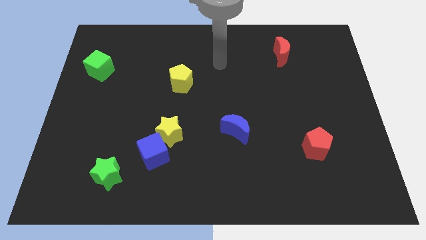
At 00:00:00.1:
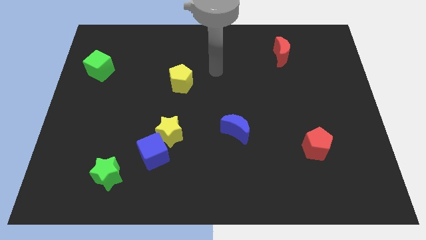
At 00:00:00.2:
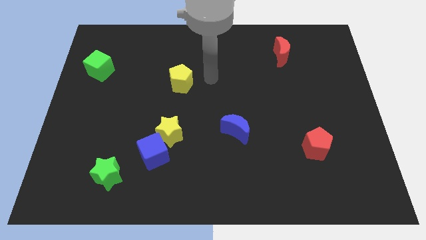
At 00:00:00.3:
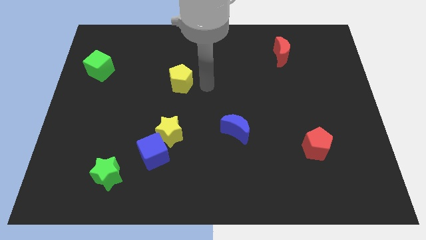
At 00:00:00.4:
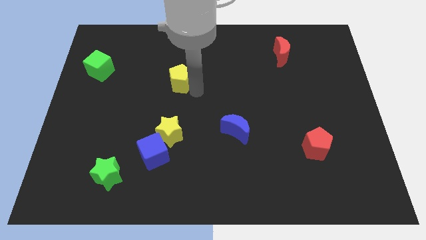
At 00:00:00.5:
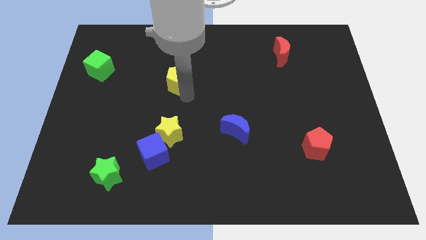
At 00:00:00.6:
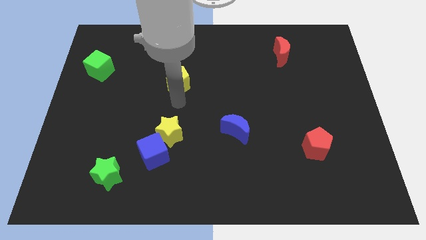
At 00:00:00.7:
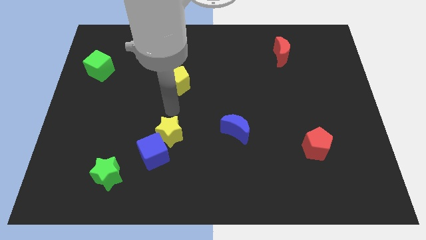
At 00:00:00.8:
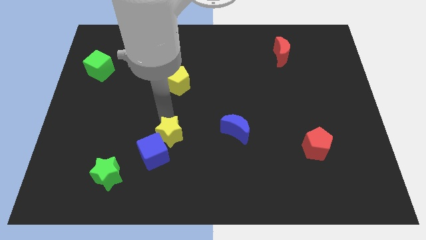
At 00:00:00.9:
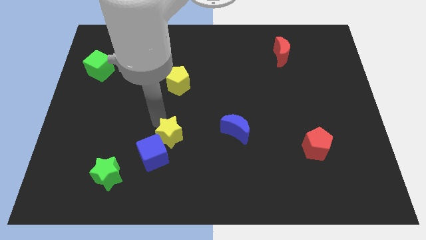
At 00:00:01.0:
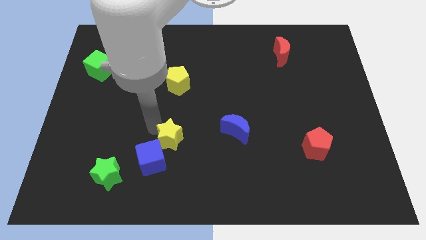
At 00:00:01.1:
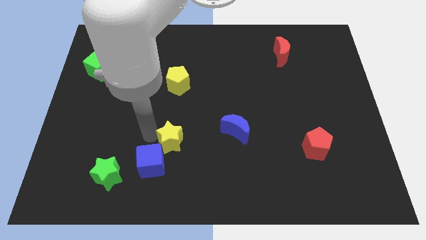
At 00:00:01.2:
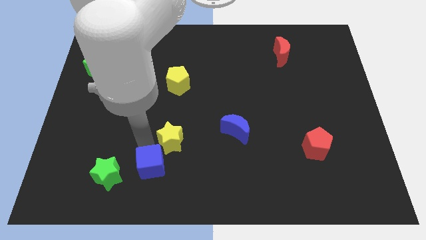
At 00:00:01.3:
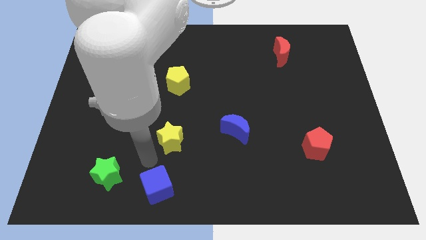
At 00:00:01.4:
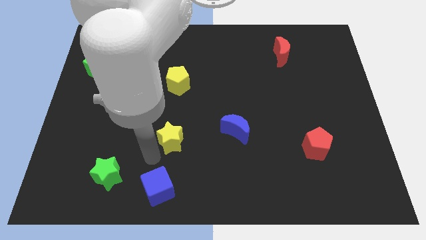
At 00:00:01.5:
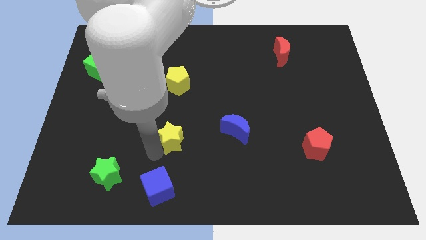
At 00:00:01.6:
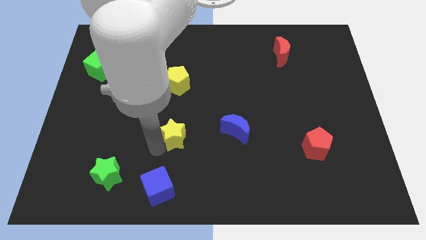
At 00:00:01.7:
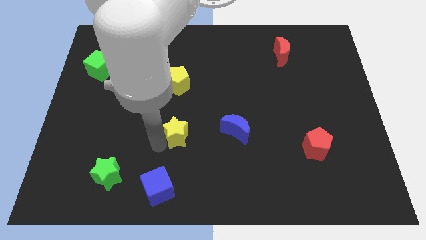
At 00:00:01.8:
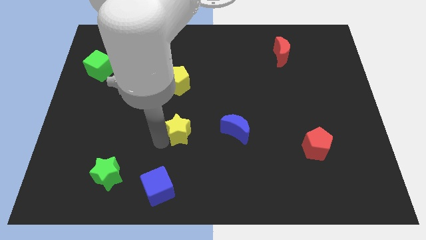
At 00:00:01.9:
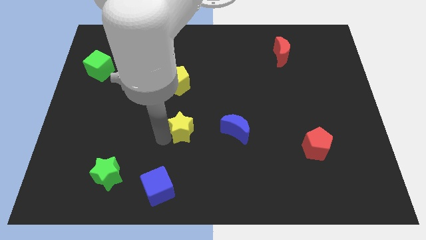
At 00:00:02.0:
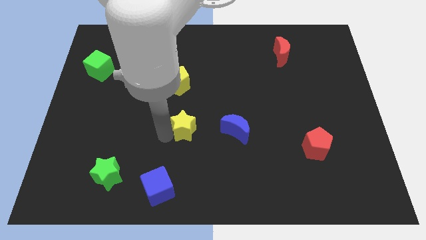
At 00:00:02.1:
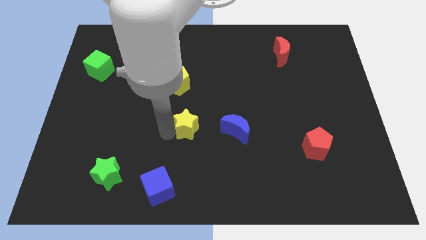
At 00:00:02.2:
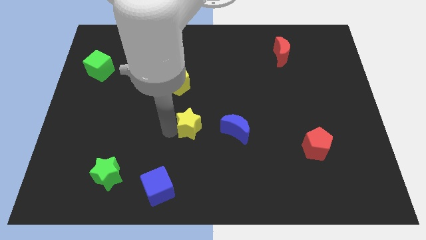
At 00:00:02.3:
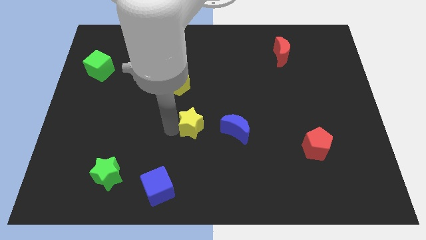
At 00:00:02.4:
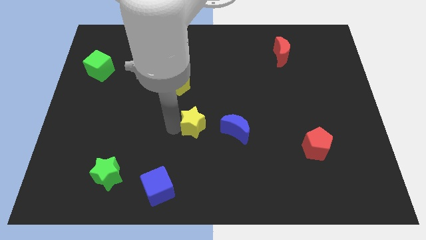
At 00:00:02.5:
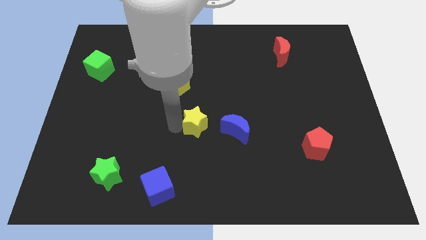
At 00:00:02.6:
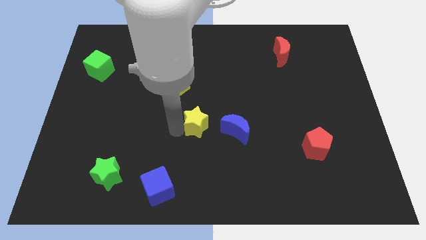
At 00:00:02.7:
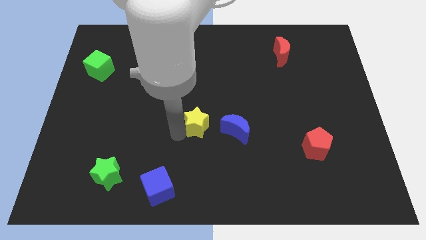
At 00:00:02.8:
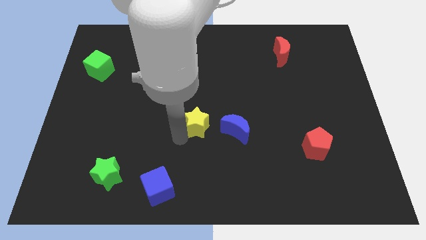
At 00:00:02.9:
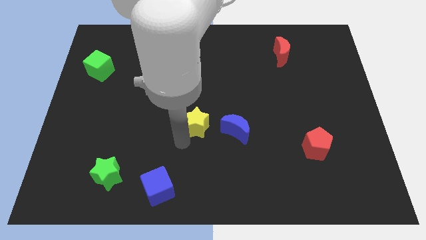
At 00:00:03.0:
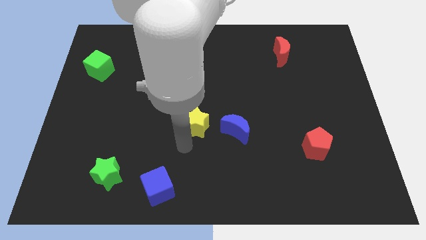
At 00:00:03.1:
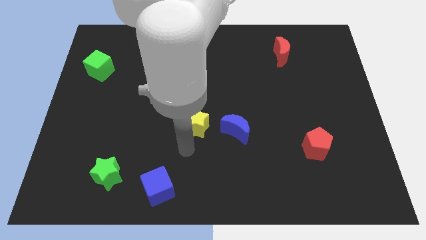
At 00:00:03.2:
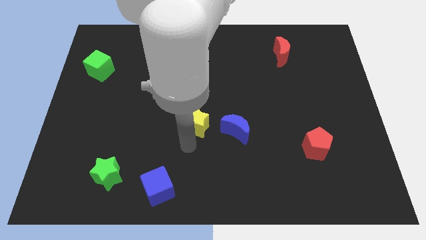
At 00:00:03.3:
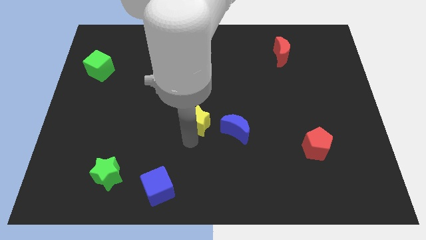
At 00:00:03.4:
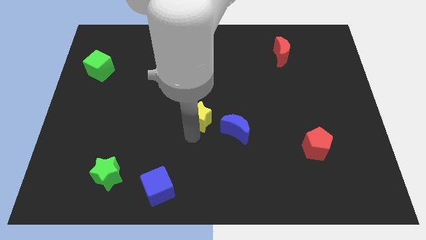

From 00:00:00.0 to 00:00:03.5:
move the yellow star a little bit up and then right

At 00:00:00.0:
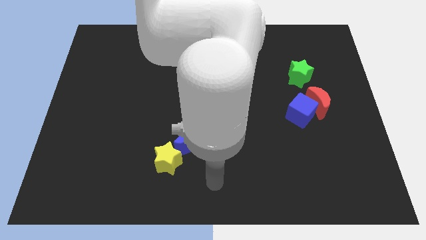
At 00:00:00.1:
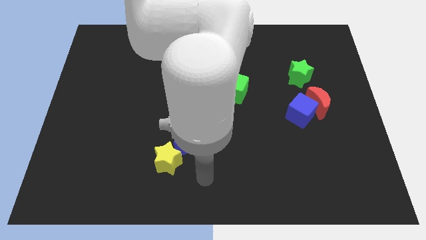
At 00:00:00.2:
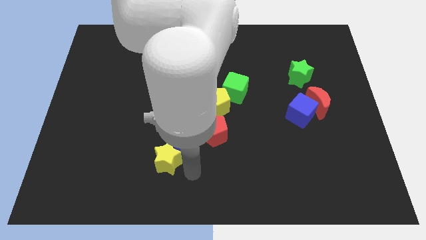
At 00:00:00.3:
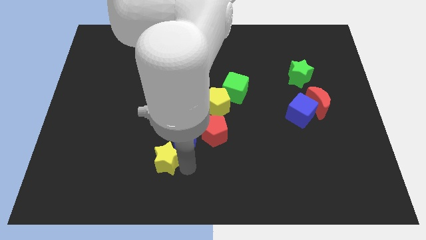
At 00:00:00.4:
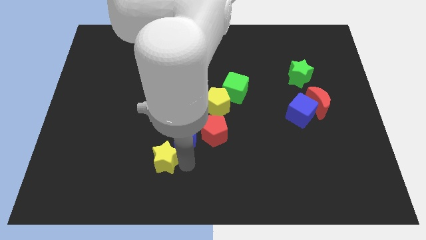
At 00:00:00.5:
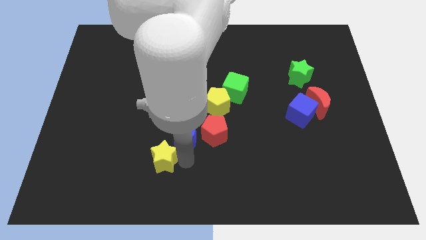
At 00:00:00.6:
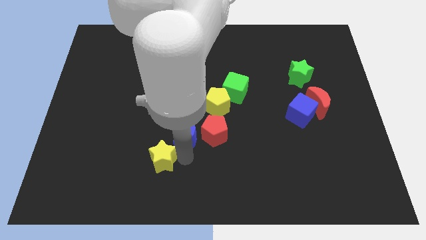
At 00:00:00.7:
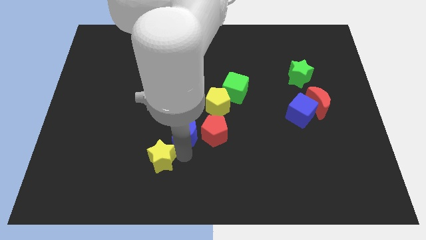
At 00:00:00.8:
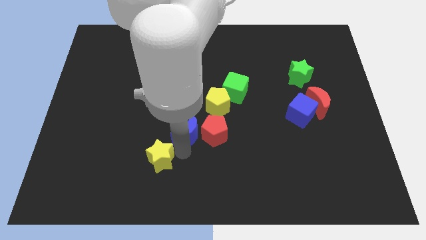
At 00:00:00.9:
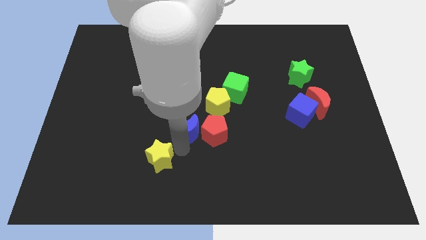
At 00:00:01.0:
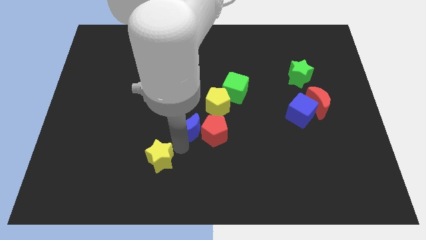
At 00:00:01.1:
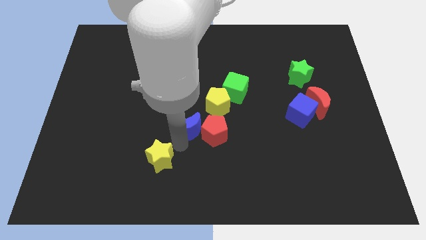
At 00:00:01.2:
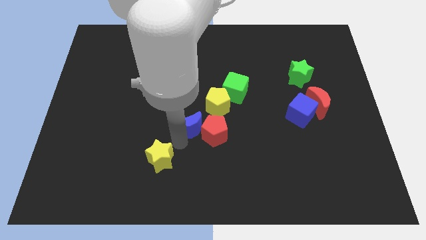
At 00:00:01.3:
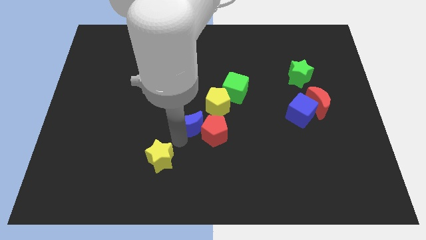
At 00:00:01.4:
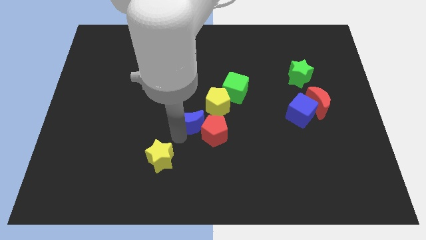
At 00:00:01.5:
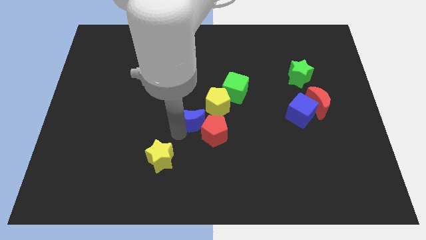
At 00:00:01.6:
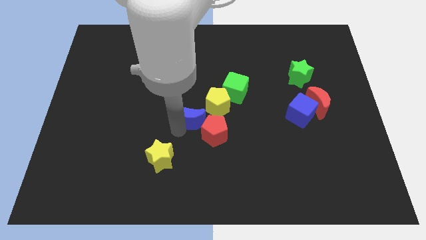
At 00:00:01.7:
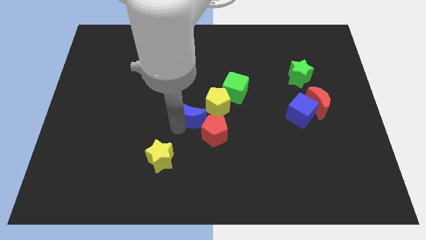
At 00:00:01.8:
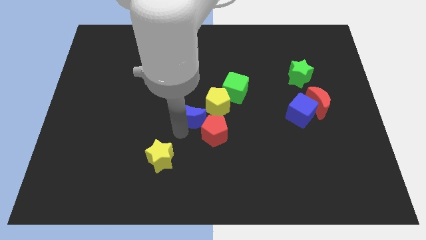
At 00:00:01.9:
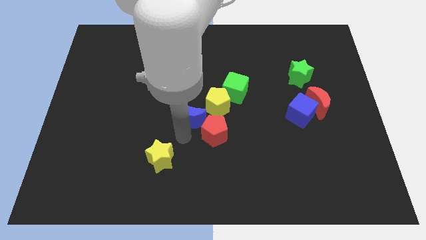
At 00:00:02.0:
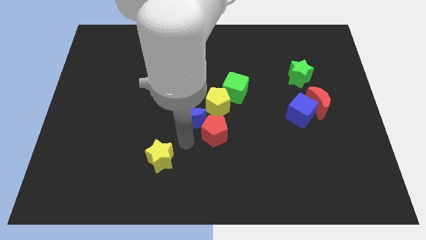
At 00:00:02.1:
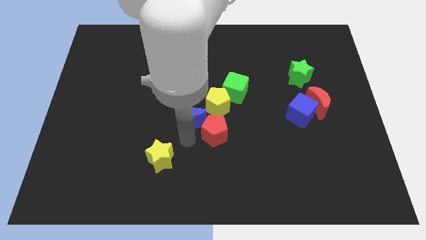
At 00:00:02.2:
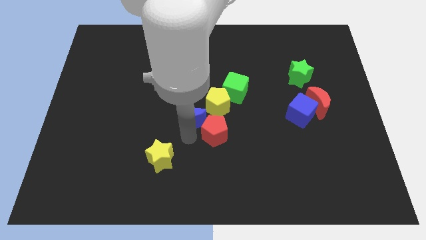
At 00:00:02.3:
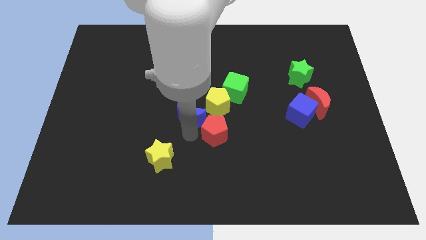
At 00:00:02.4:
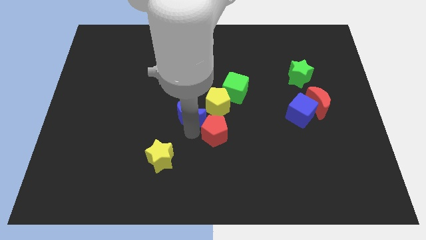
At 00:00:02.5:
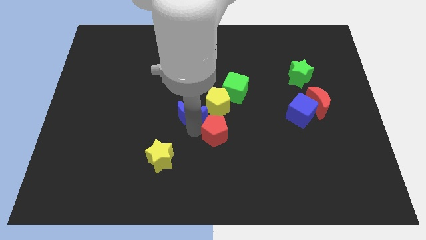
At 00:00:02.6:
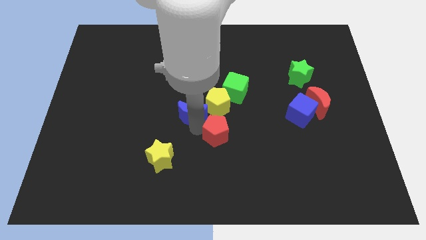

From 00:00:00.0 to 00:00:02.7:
move the blue moon up a bit

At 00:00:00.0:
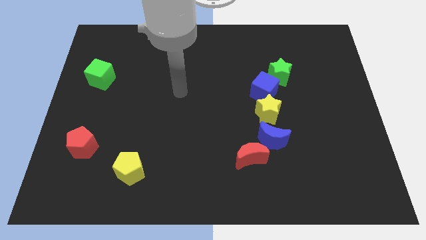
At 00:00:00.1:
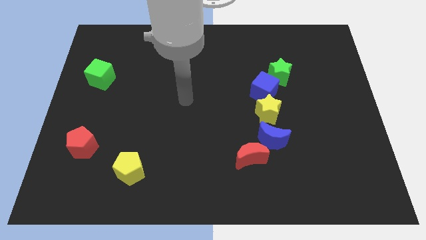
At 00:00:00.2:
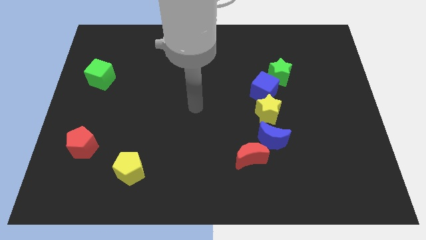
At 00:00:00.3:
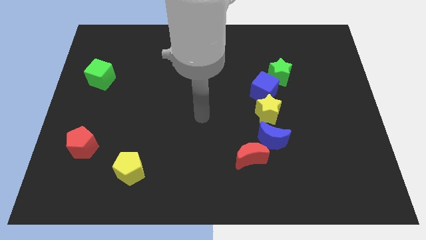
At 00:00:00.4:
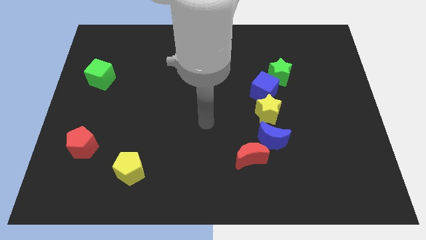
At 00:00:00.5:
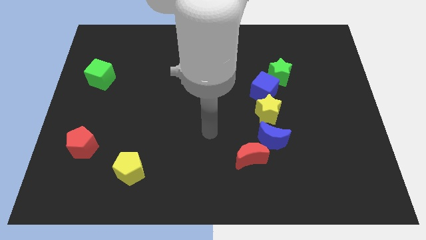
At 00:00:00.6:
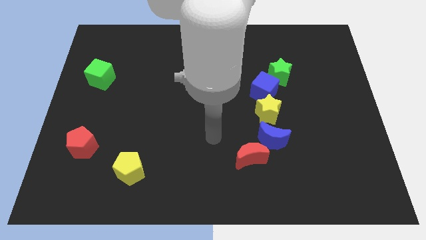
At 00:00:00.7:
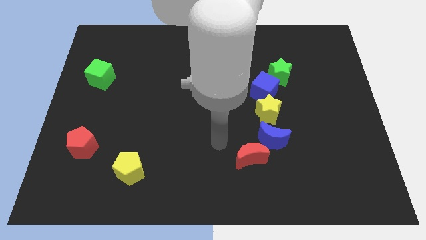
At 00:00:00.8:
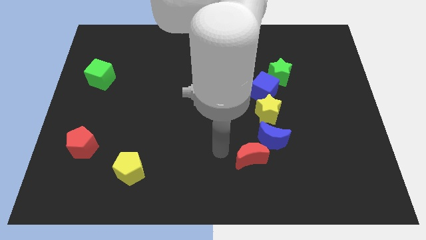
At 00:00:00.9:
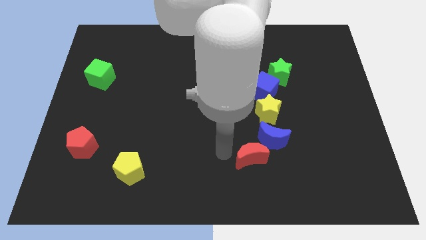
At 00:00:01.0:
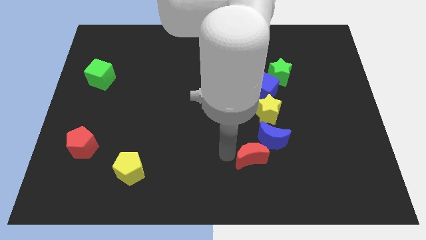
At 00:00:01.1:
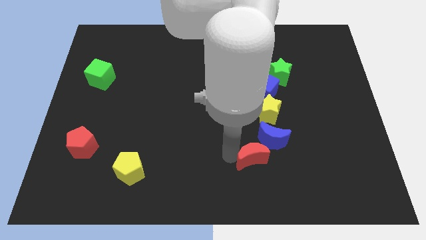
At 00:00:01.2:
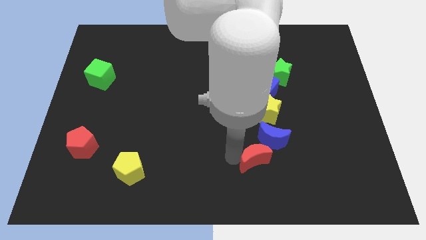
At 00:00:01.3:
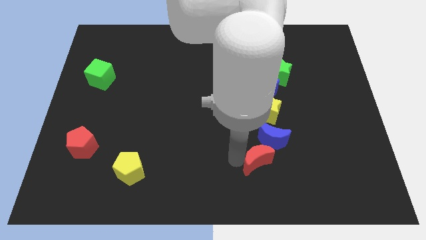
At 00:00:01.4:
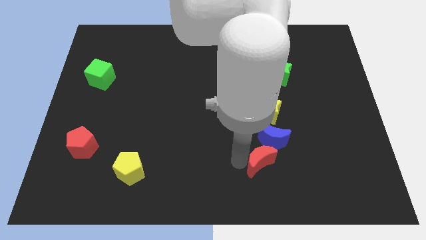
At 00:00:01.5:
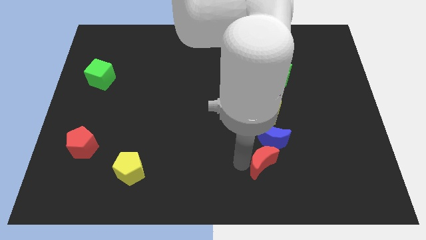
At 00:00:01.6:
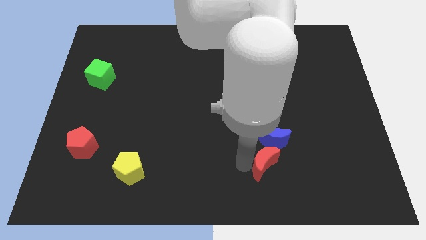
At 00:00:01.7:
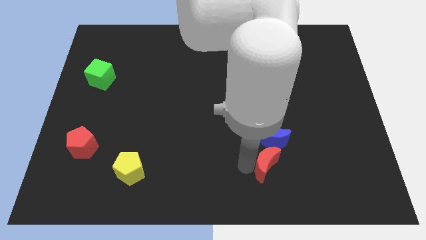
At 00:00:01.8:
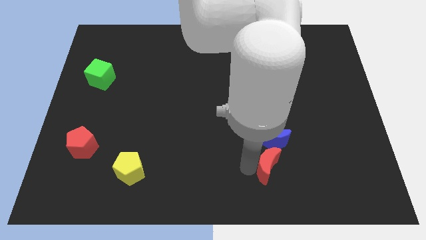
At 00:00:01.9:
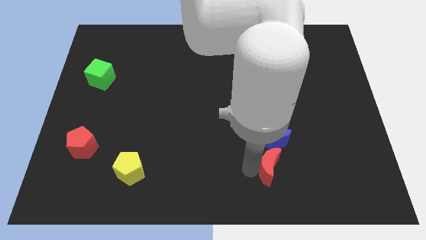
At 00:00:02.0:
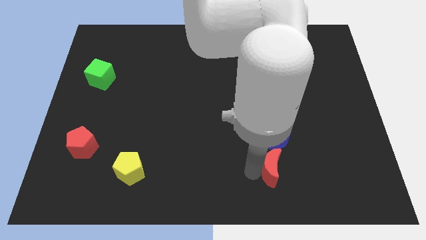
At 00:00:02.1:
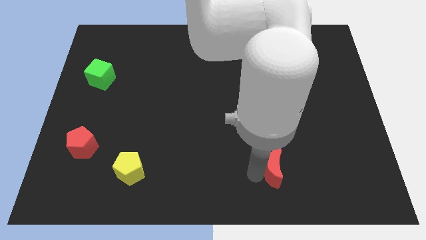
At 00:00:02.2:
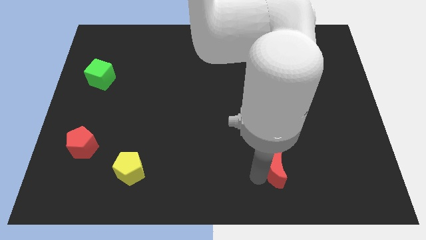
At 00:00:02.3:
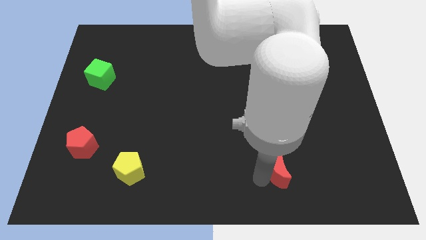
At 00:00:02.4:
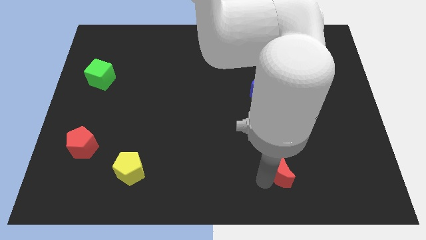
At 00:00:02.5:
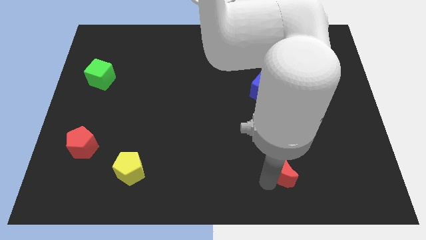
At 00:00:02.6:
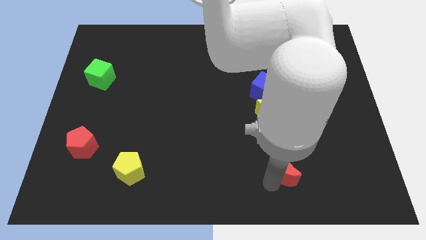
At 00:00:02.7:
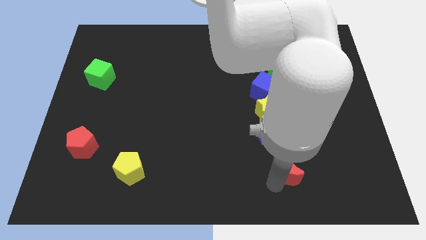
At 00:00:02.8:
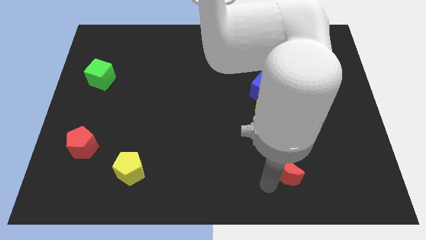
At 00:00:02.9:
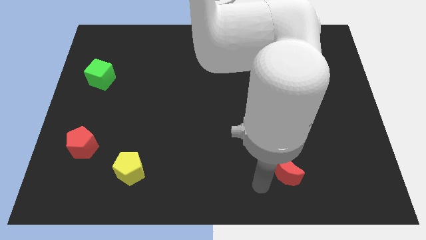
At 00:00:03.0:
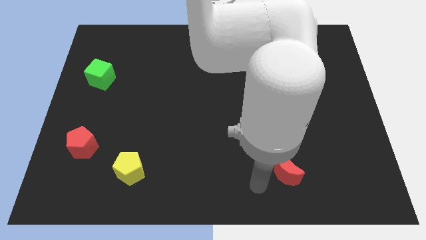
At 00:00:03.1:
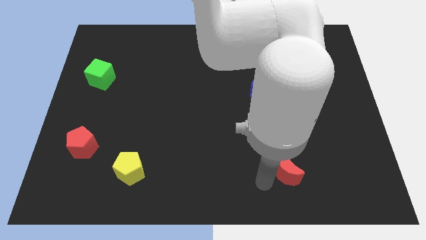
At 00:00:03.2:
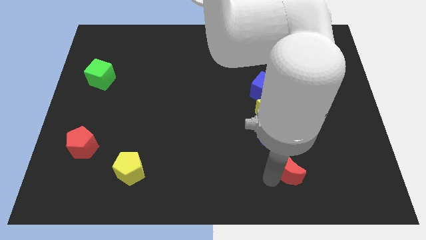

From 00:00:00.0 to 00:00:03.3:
move the red moon a little bit to the right
